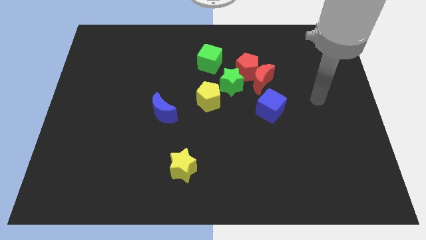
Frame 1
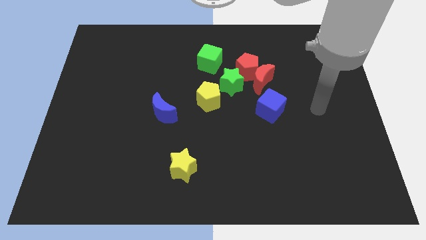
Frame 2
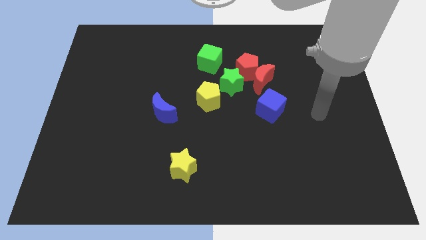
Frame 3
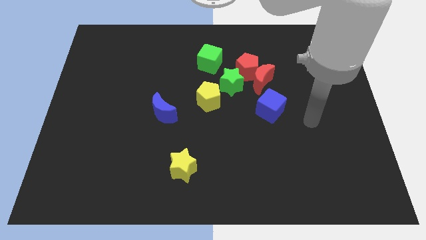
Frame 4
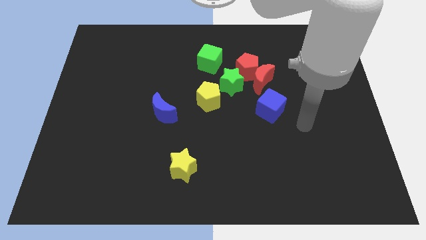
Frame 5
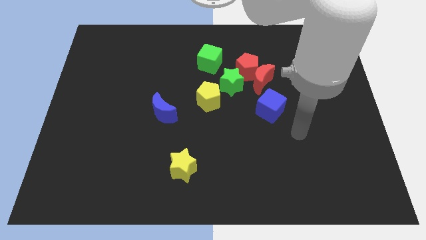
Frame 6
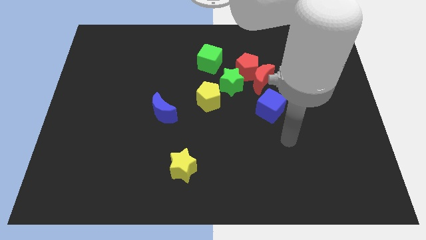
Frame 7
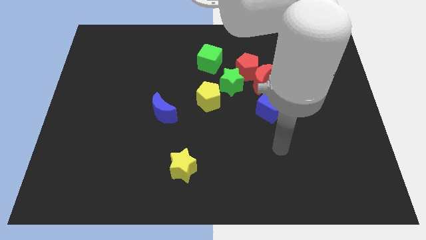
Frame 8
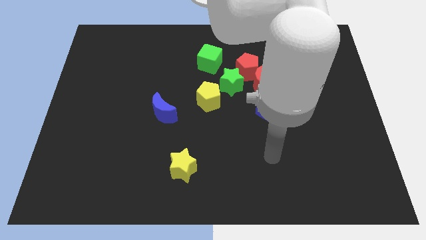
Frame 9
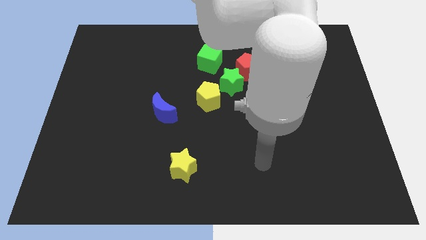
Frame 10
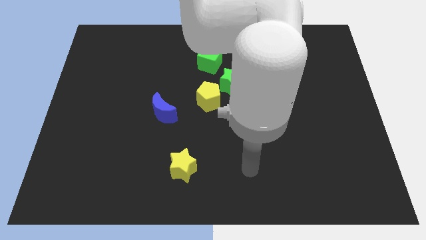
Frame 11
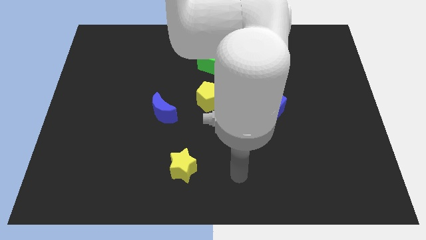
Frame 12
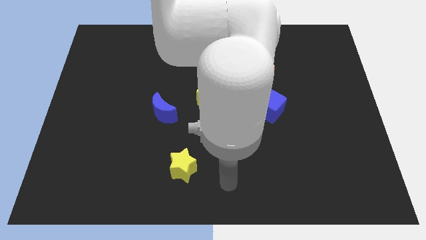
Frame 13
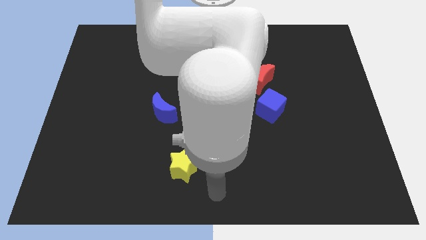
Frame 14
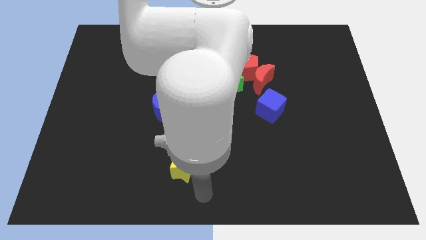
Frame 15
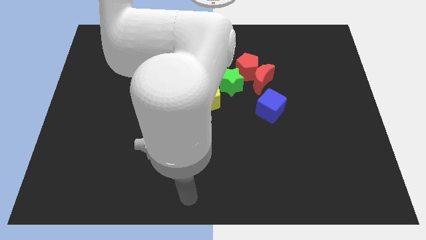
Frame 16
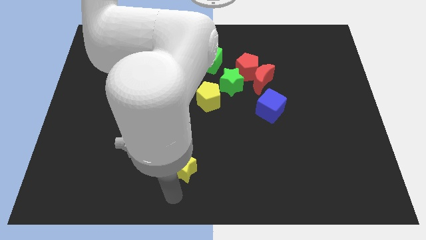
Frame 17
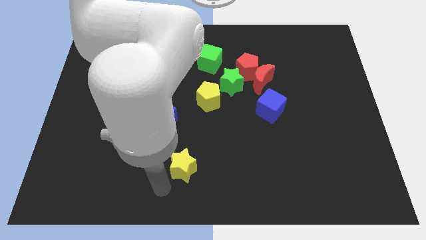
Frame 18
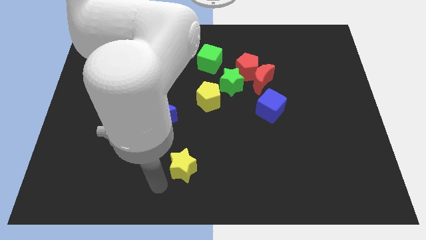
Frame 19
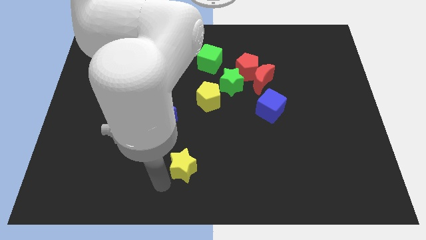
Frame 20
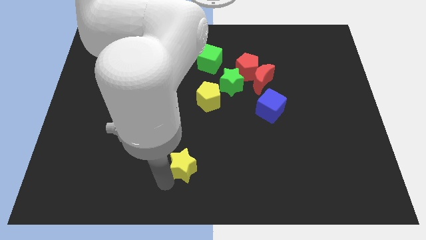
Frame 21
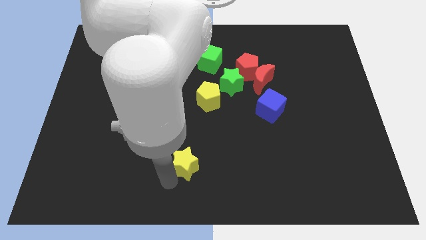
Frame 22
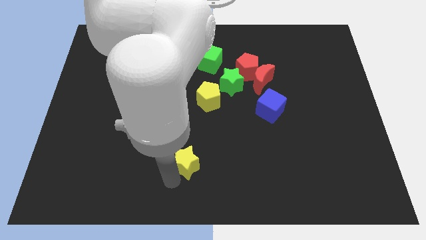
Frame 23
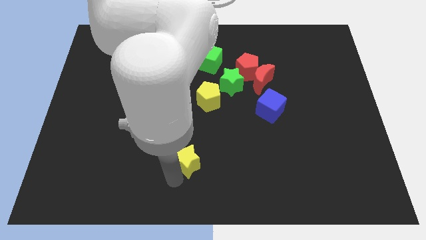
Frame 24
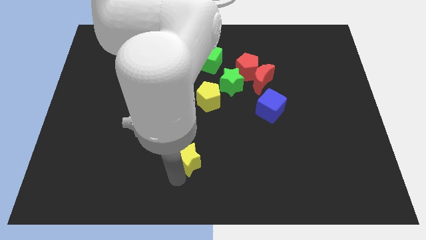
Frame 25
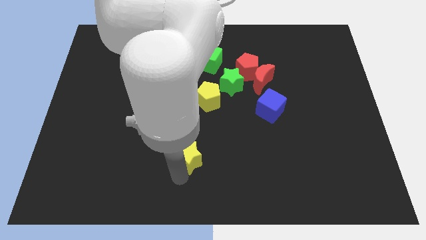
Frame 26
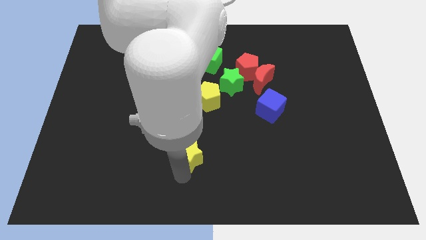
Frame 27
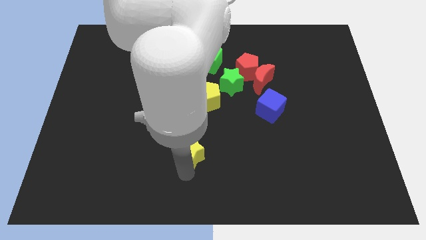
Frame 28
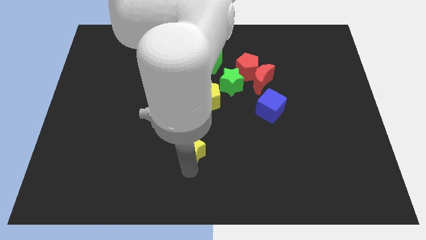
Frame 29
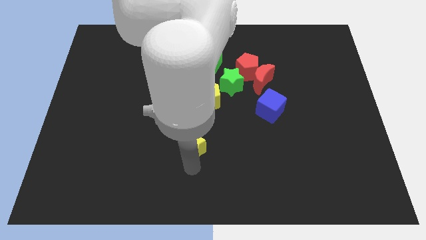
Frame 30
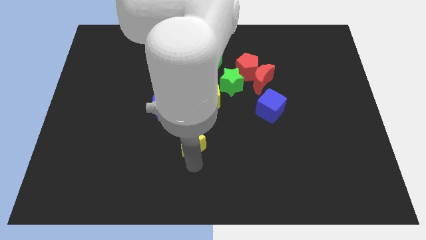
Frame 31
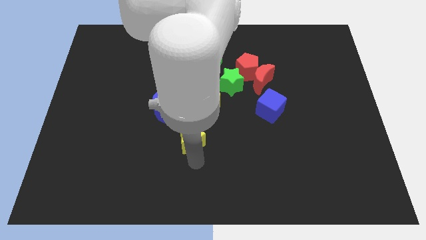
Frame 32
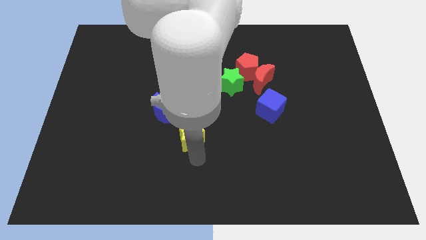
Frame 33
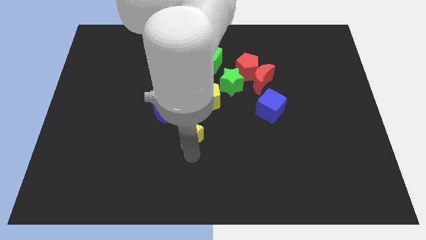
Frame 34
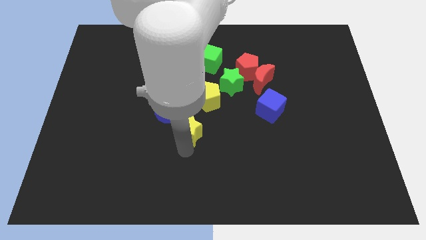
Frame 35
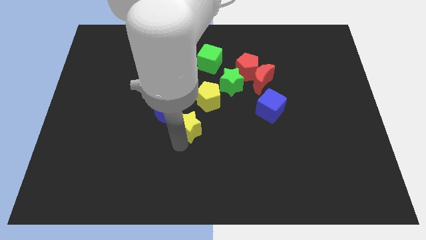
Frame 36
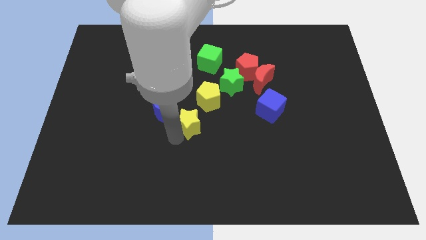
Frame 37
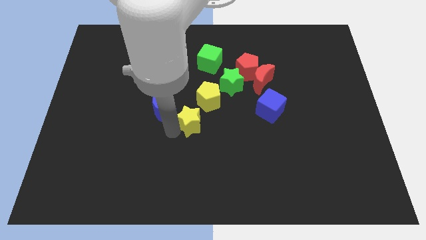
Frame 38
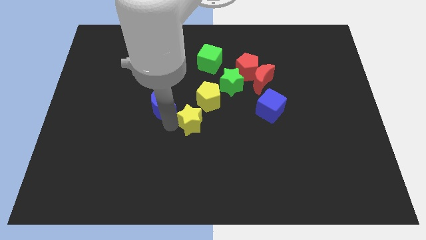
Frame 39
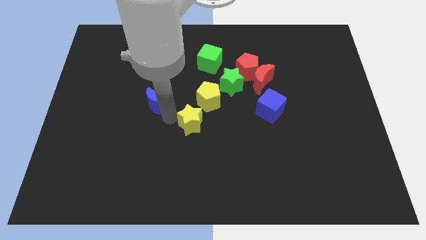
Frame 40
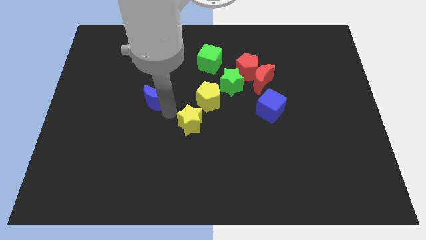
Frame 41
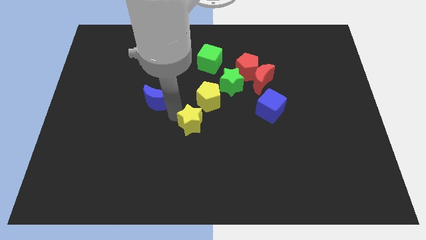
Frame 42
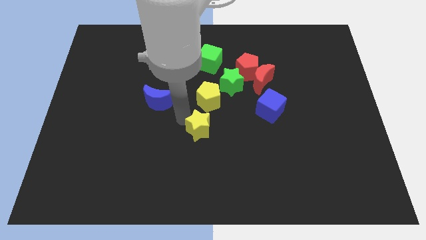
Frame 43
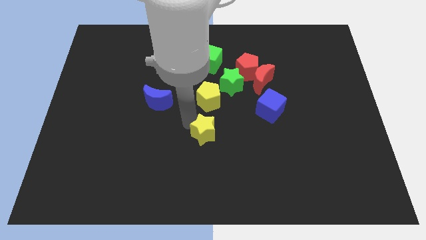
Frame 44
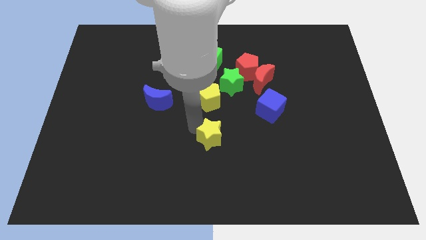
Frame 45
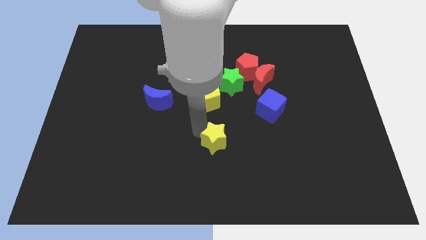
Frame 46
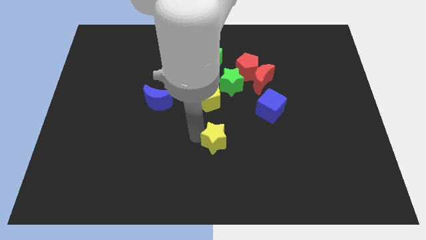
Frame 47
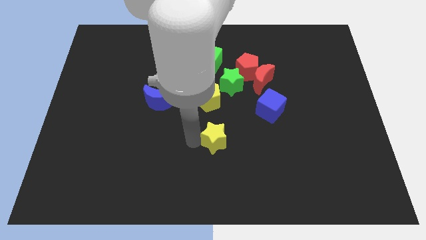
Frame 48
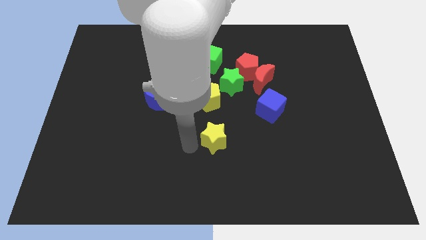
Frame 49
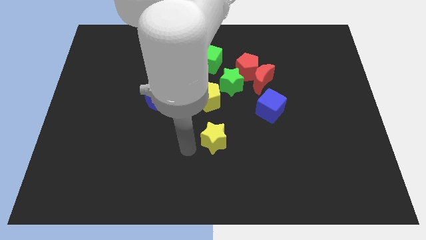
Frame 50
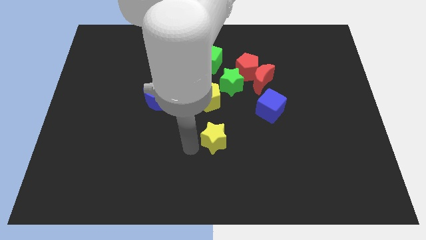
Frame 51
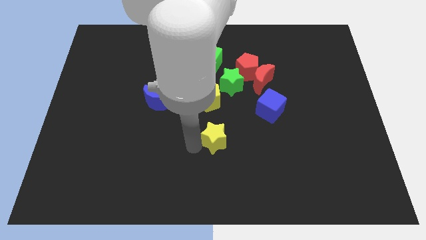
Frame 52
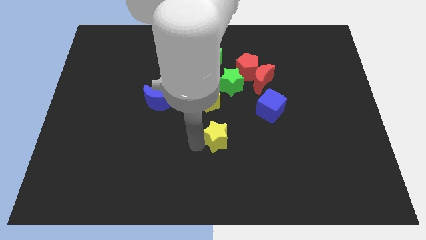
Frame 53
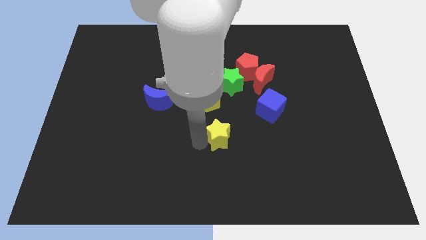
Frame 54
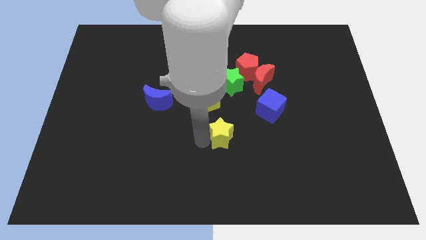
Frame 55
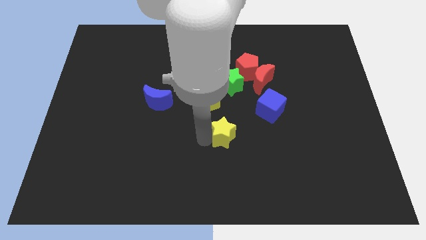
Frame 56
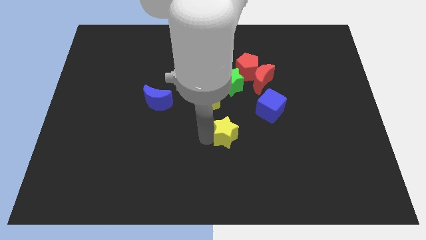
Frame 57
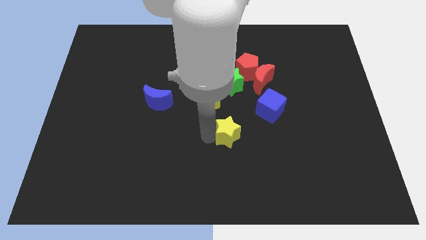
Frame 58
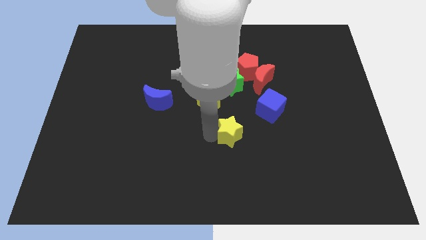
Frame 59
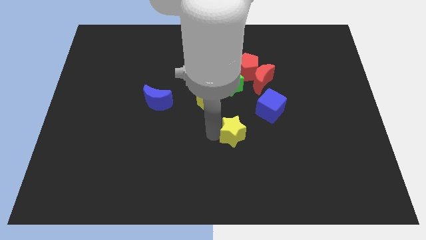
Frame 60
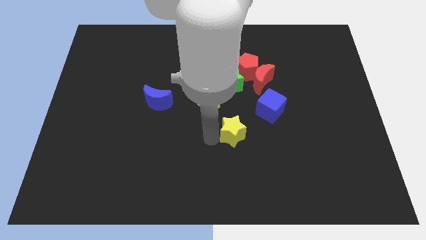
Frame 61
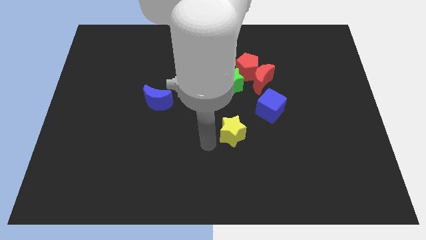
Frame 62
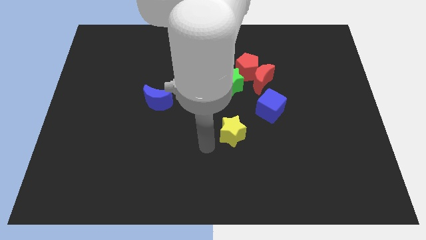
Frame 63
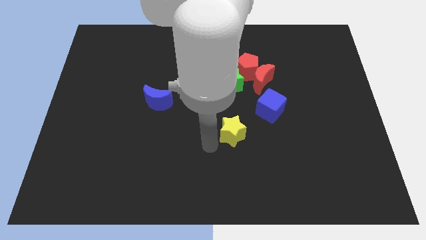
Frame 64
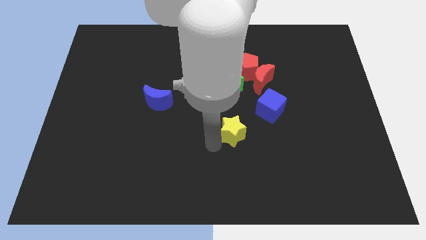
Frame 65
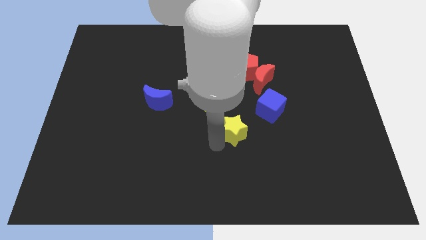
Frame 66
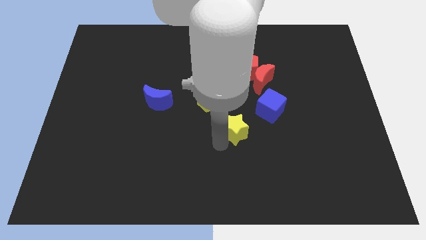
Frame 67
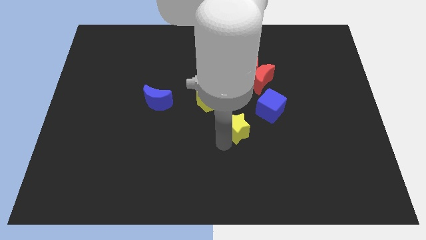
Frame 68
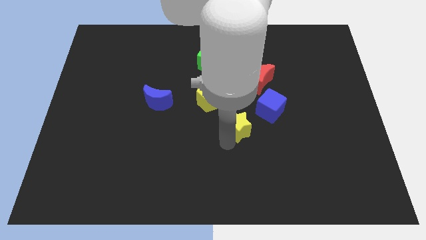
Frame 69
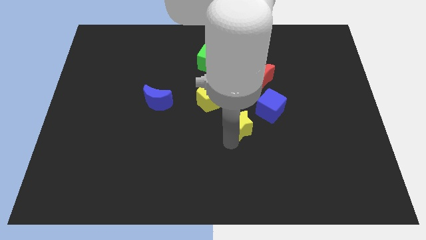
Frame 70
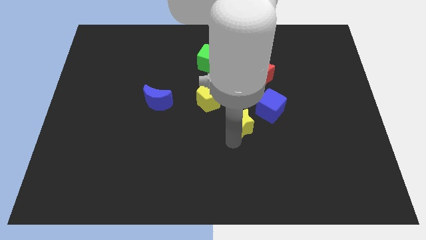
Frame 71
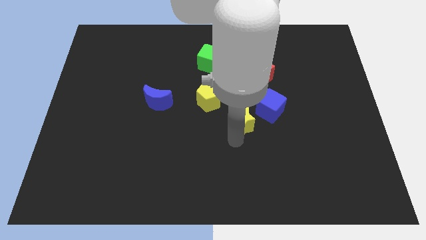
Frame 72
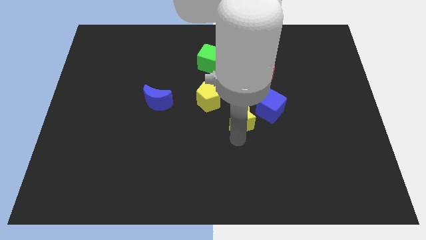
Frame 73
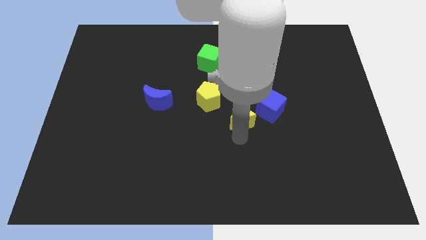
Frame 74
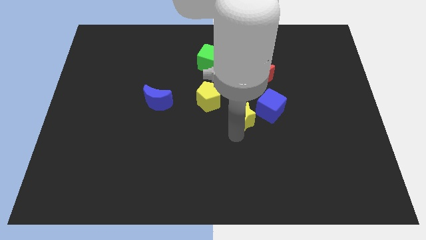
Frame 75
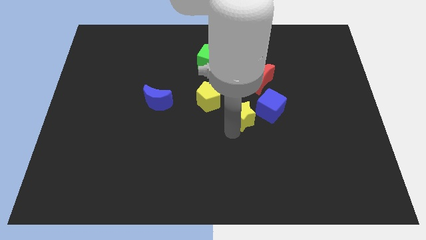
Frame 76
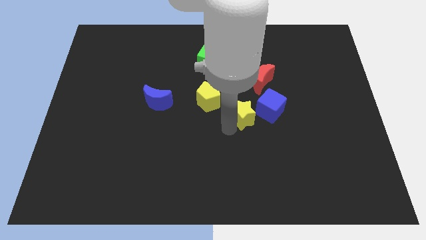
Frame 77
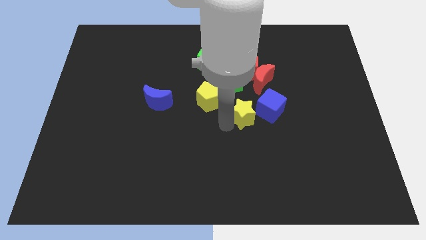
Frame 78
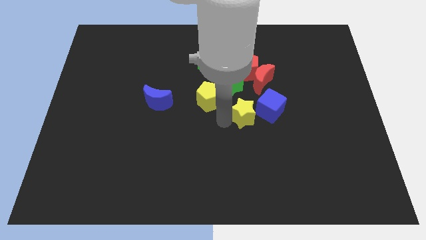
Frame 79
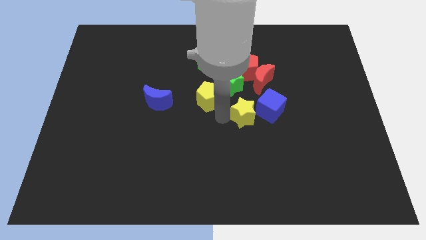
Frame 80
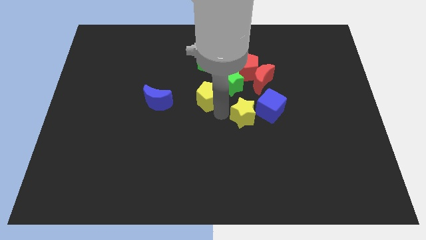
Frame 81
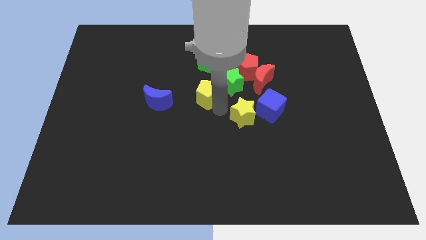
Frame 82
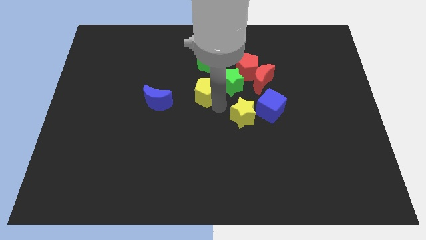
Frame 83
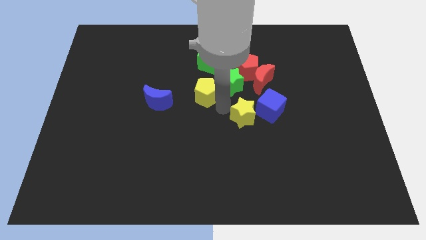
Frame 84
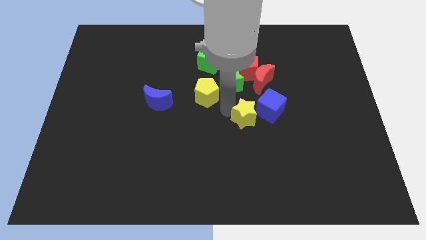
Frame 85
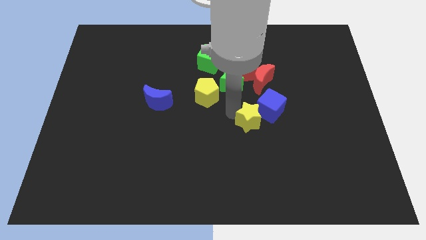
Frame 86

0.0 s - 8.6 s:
push the yellow star towards the blue cube
